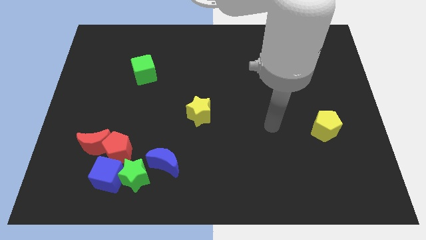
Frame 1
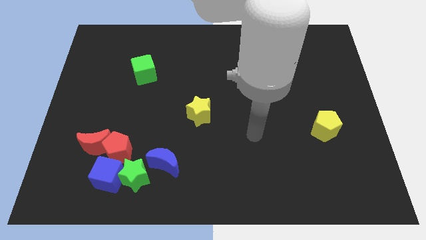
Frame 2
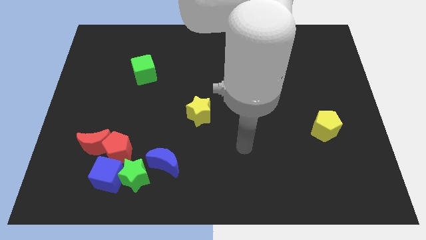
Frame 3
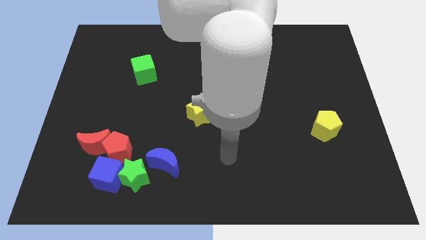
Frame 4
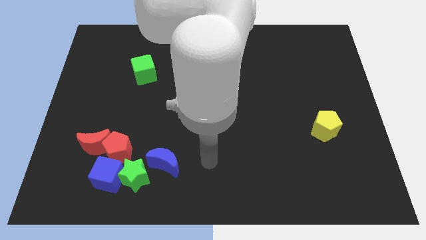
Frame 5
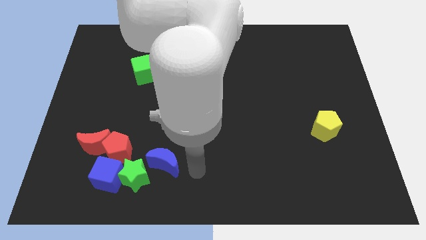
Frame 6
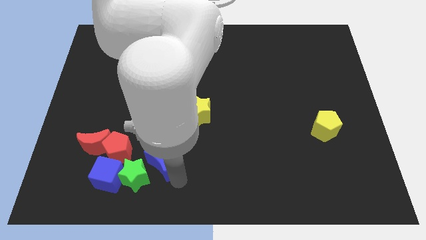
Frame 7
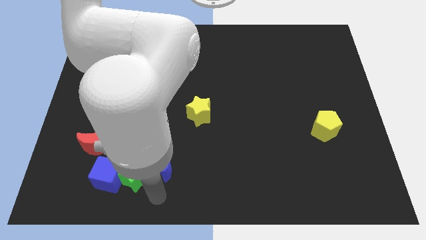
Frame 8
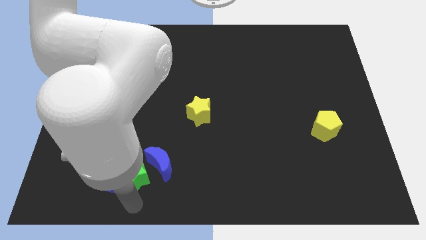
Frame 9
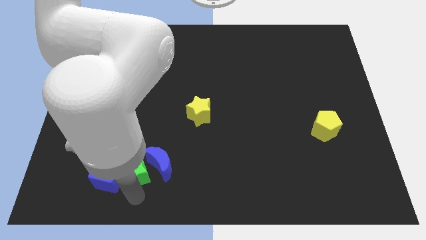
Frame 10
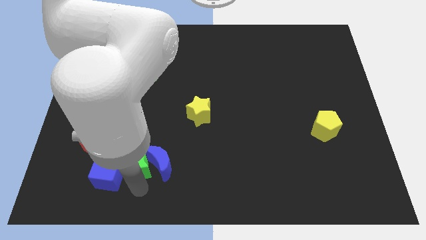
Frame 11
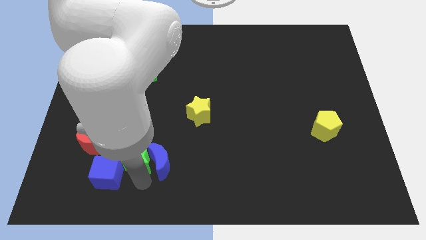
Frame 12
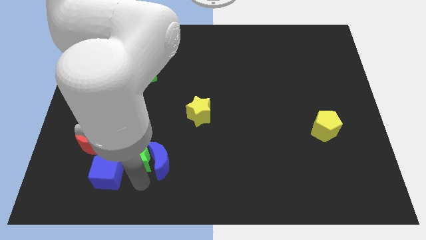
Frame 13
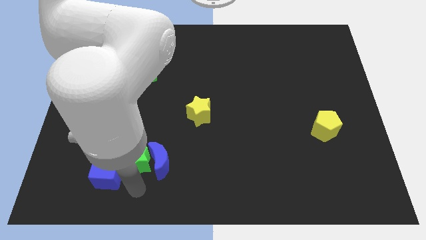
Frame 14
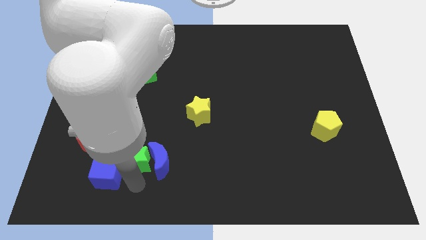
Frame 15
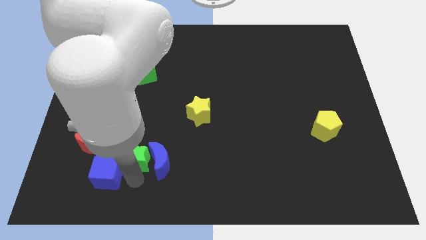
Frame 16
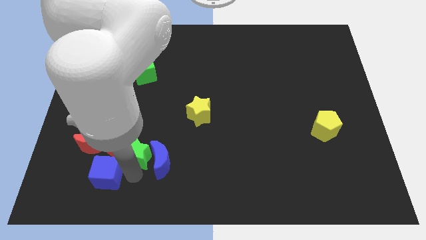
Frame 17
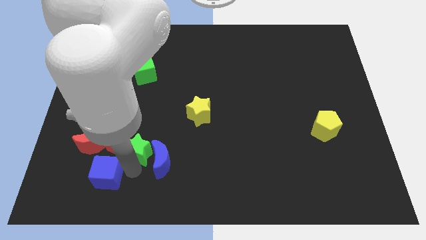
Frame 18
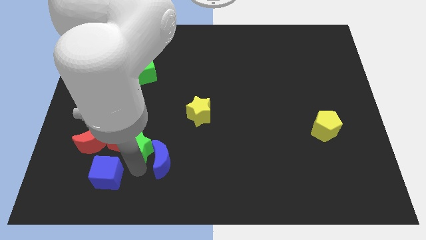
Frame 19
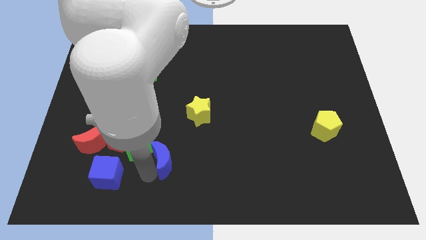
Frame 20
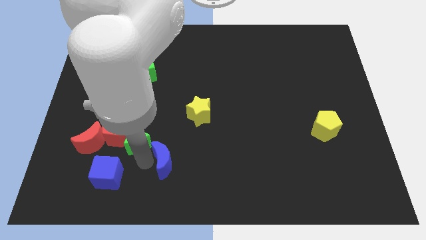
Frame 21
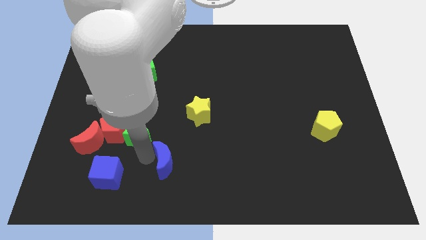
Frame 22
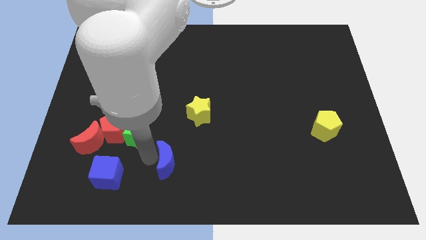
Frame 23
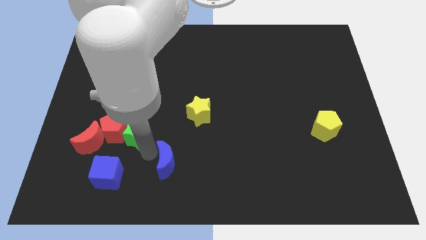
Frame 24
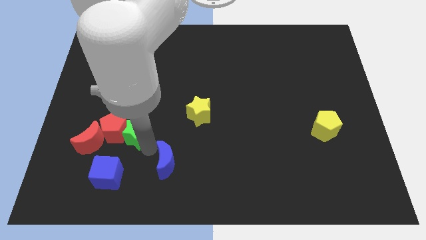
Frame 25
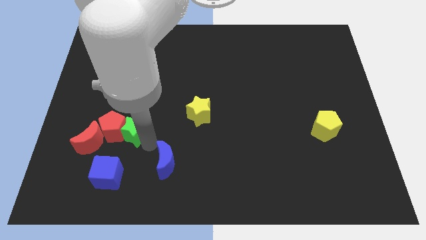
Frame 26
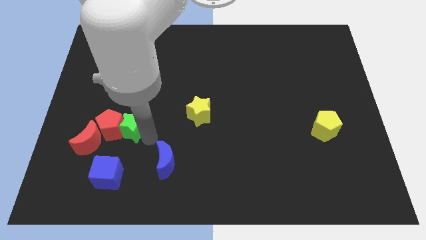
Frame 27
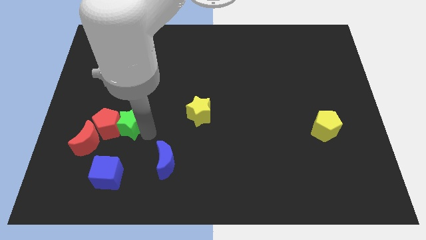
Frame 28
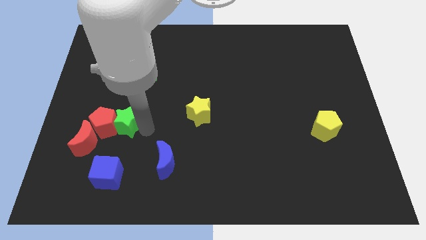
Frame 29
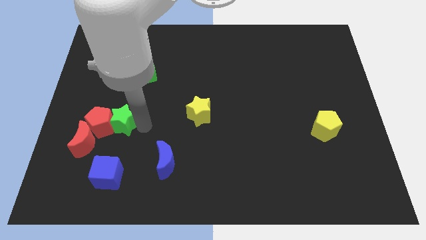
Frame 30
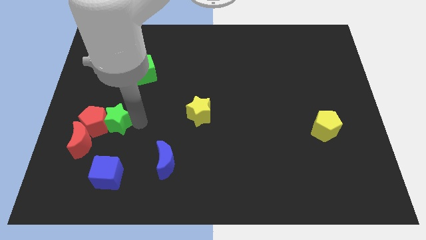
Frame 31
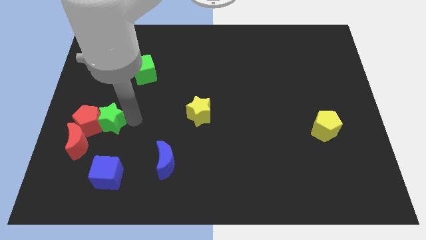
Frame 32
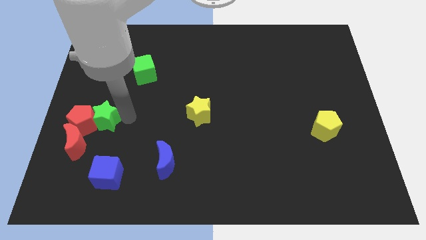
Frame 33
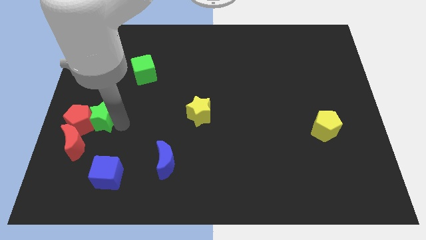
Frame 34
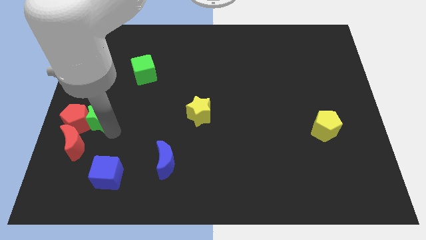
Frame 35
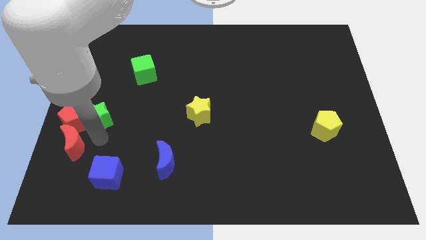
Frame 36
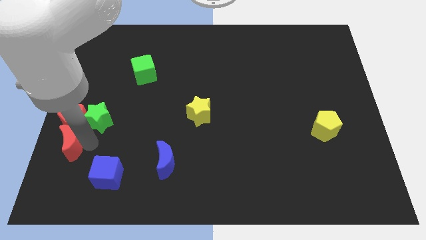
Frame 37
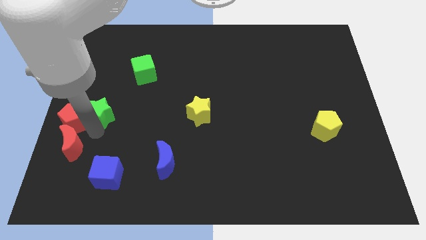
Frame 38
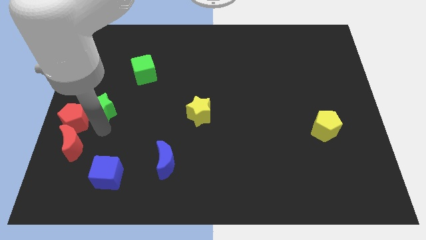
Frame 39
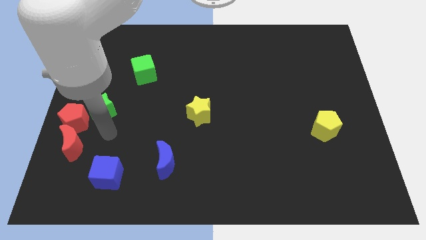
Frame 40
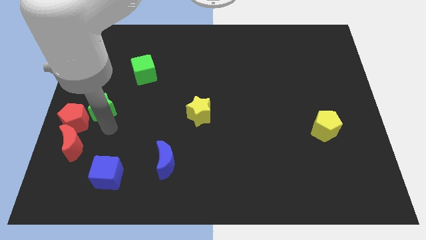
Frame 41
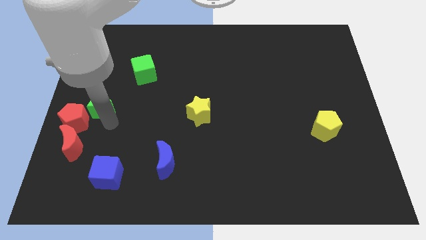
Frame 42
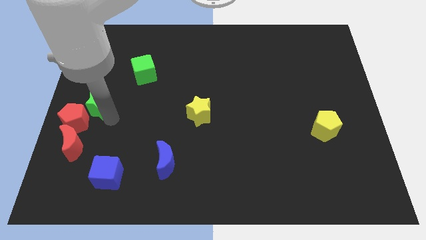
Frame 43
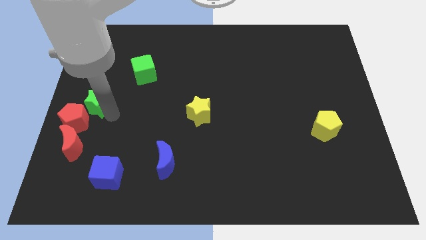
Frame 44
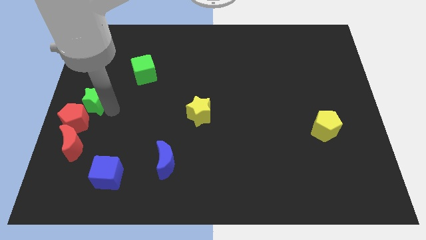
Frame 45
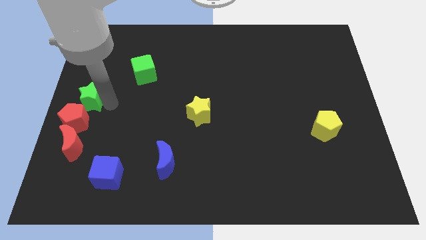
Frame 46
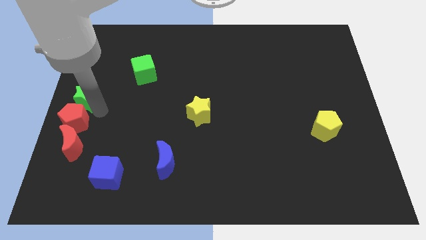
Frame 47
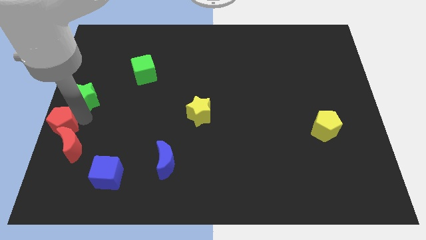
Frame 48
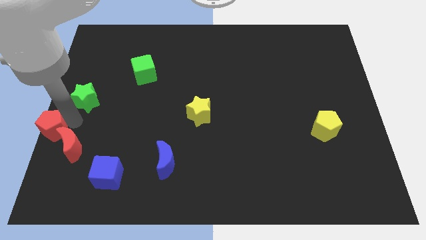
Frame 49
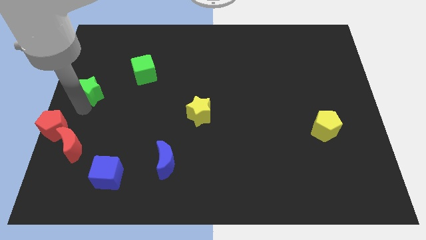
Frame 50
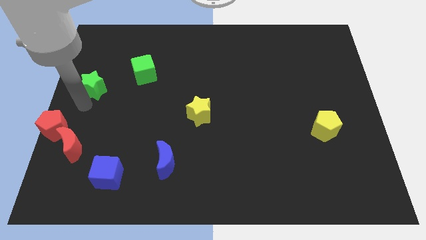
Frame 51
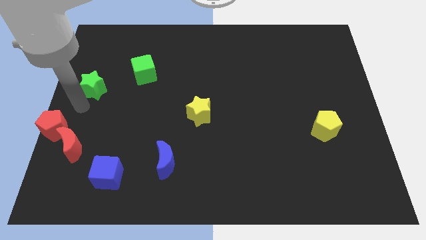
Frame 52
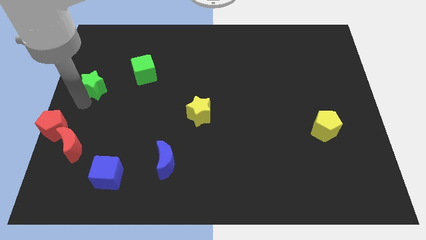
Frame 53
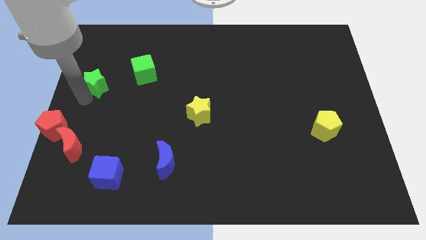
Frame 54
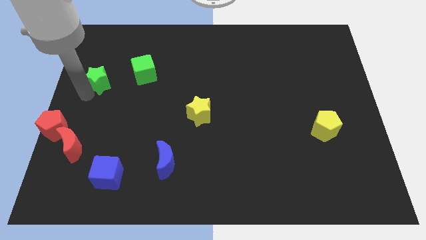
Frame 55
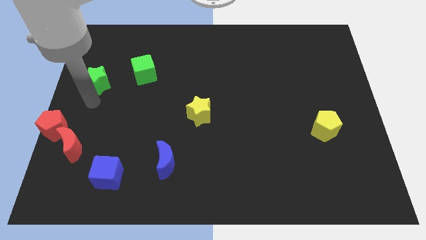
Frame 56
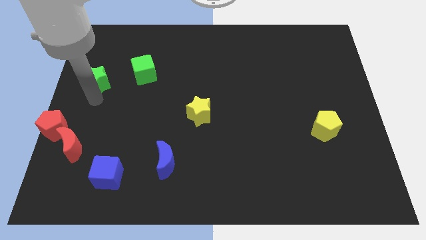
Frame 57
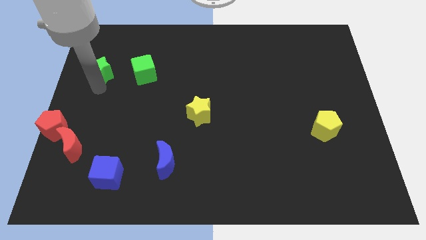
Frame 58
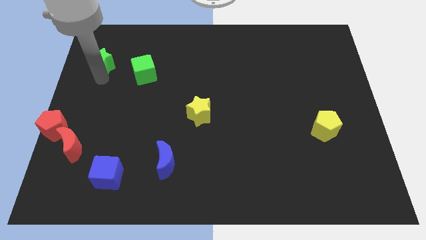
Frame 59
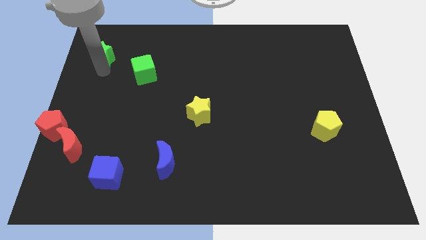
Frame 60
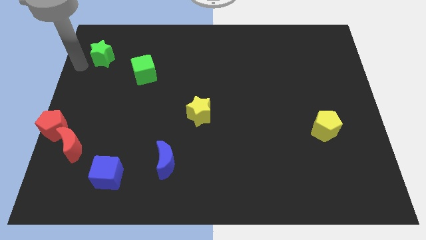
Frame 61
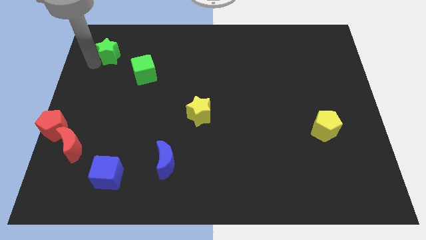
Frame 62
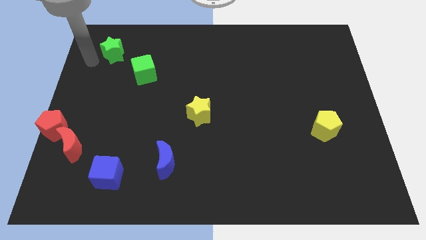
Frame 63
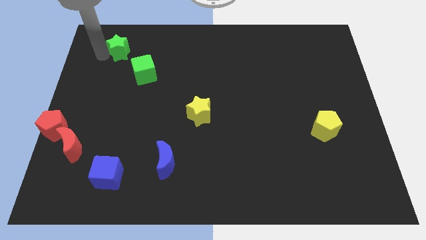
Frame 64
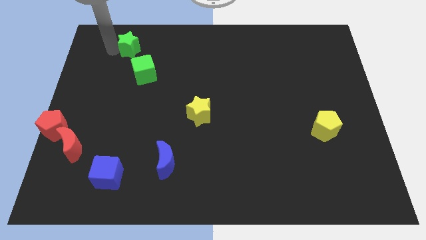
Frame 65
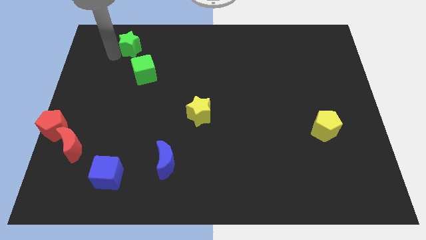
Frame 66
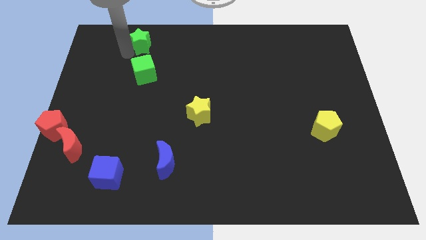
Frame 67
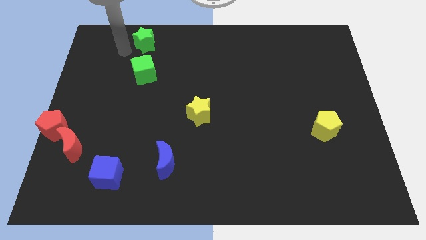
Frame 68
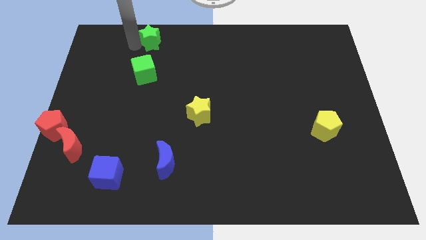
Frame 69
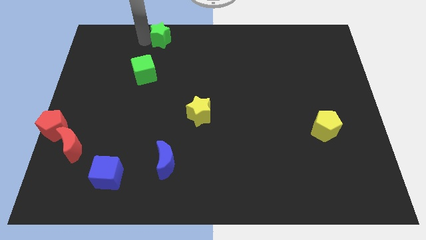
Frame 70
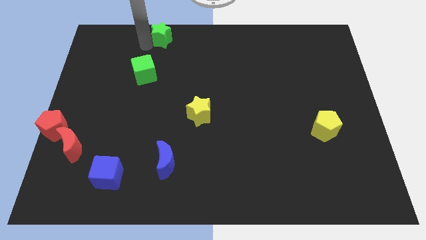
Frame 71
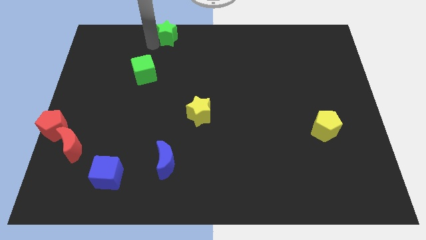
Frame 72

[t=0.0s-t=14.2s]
slide the green star to the towards your base
